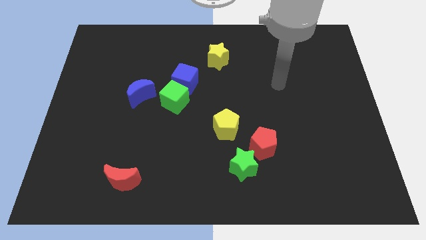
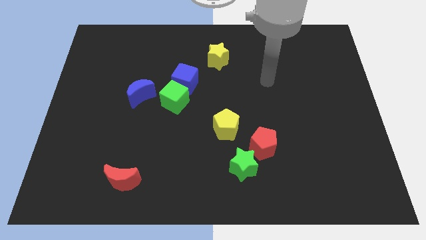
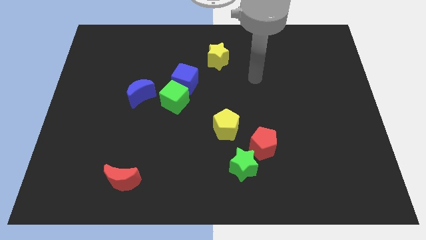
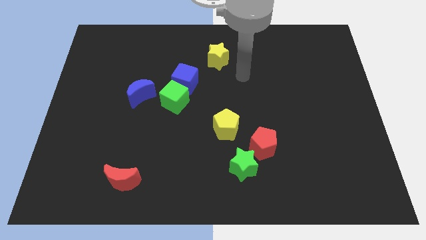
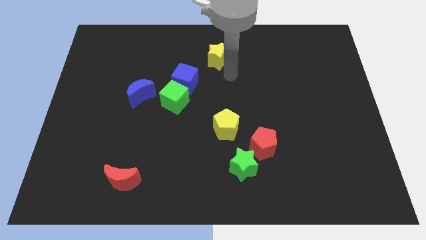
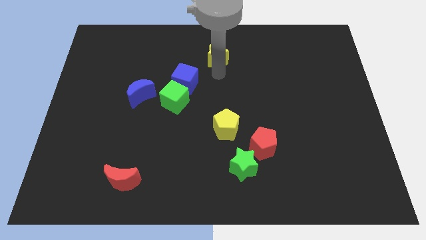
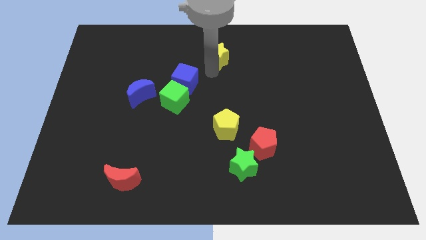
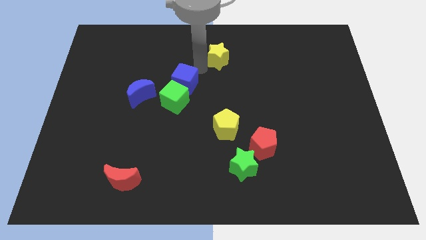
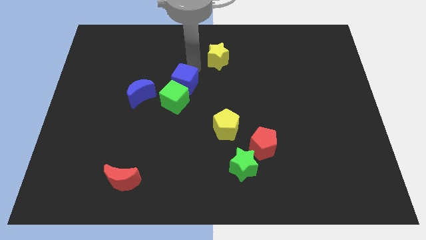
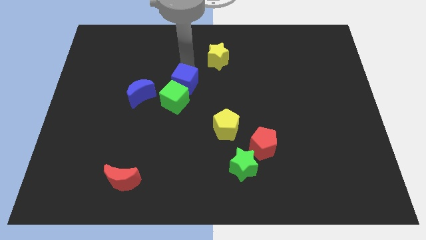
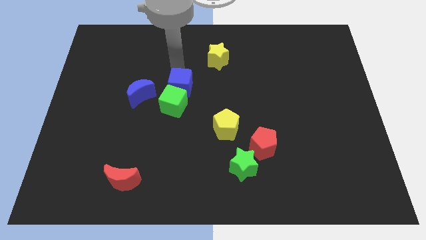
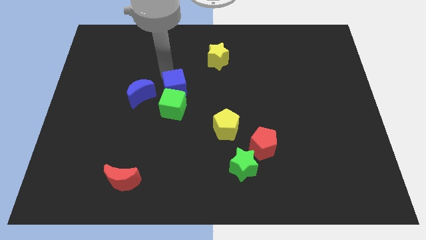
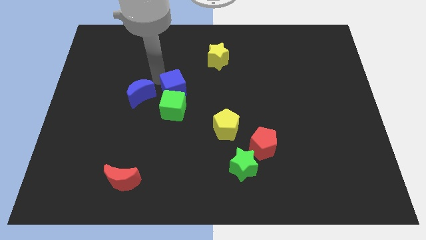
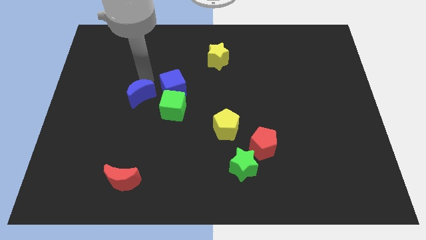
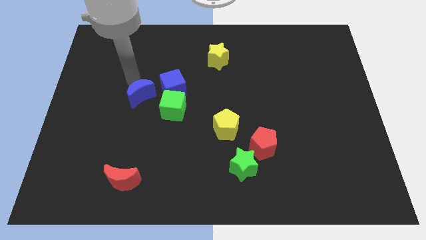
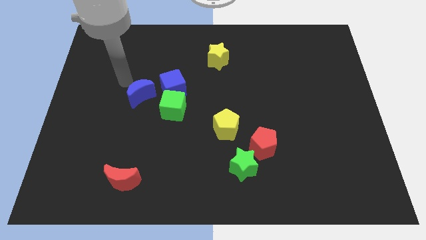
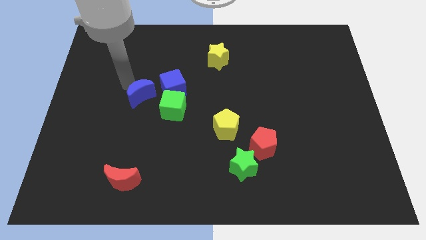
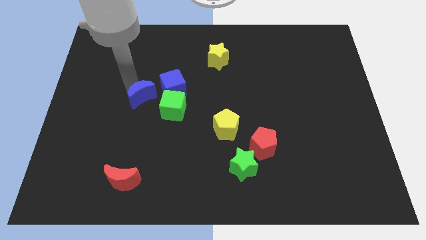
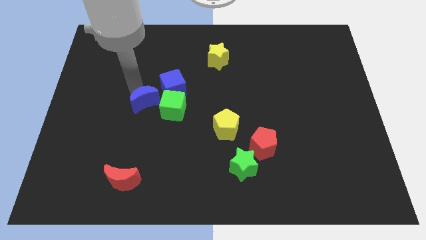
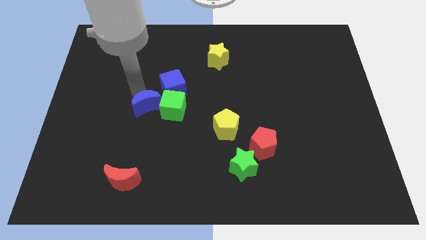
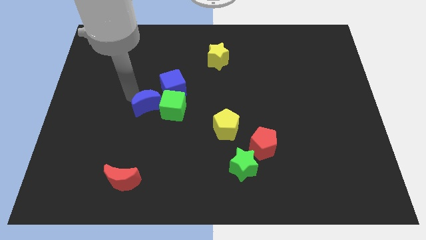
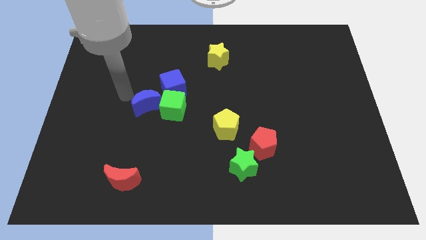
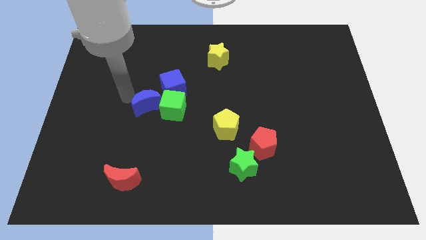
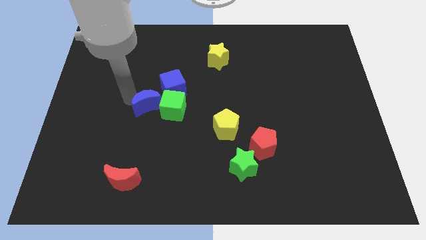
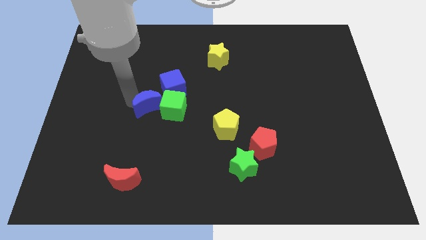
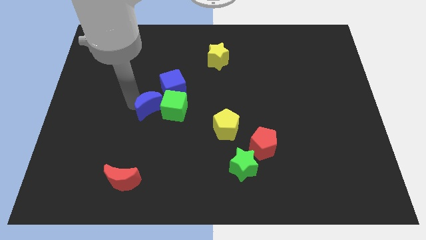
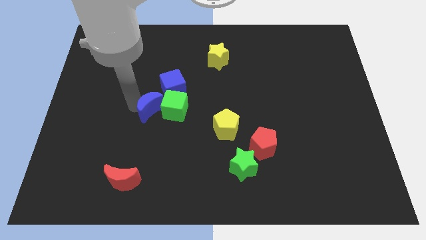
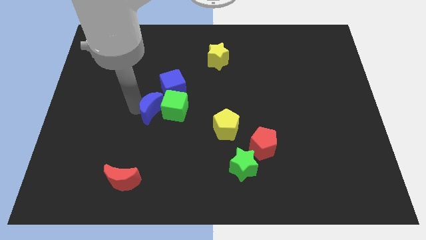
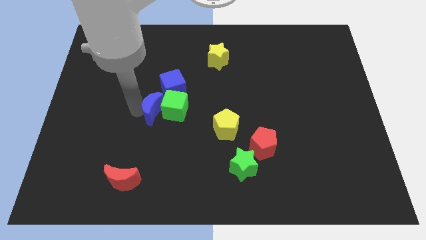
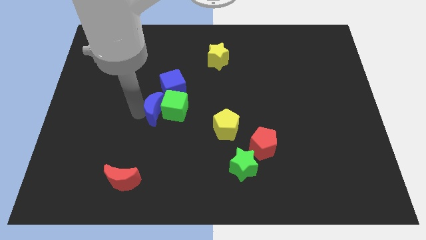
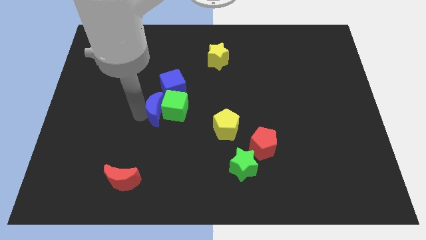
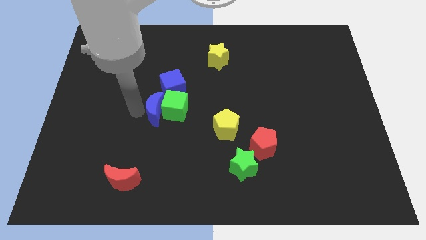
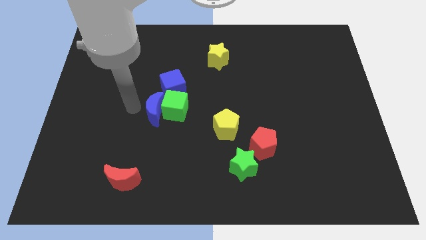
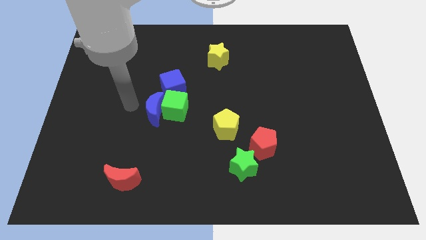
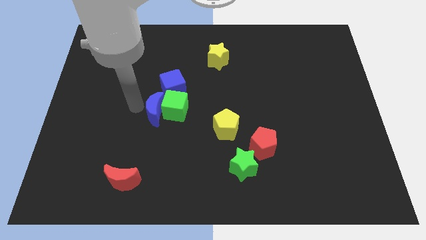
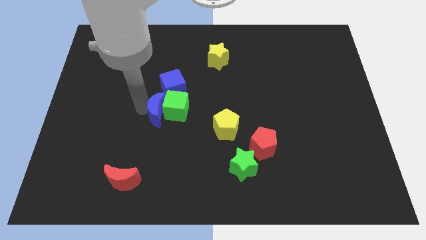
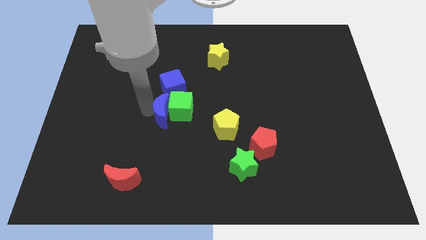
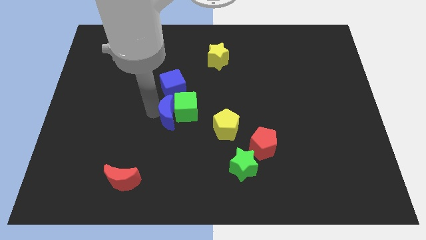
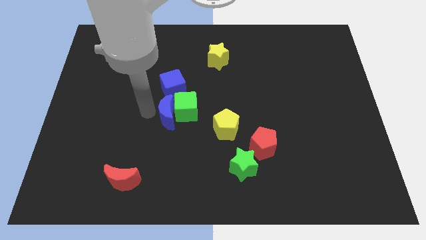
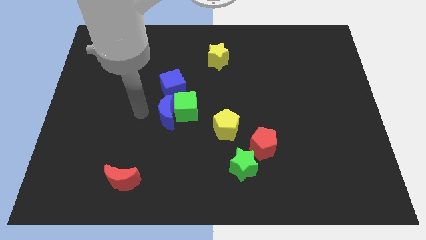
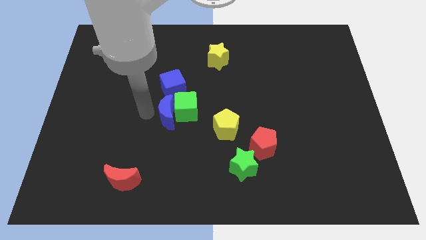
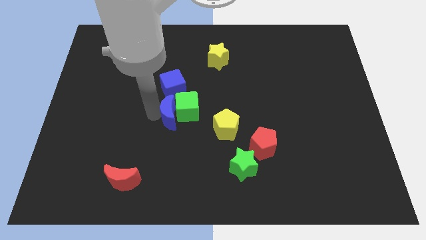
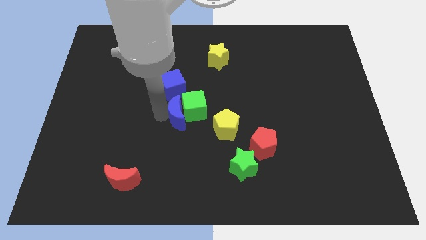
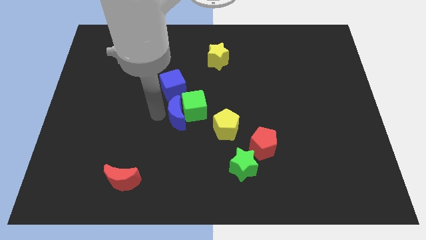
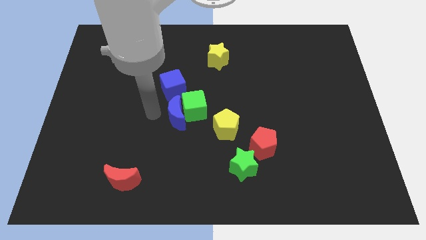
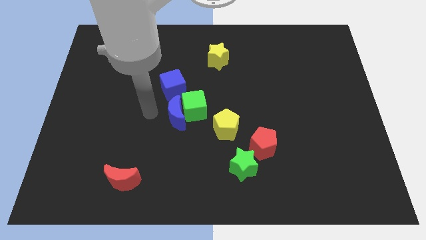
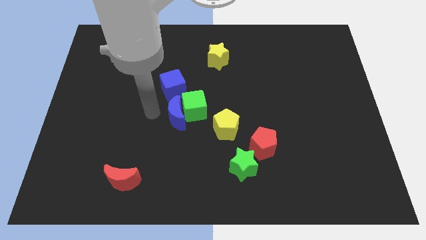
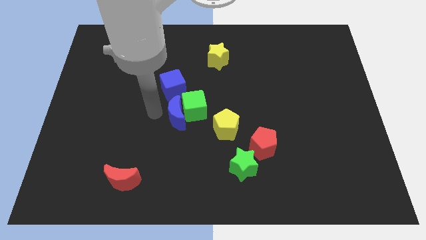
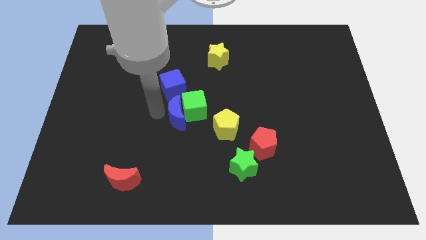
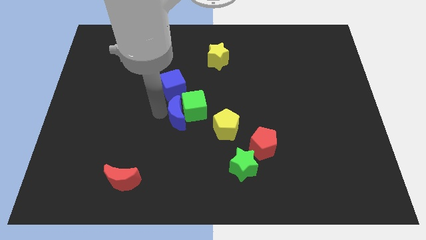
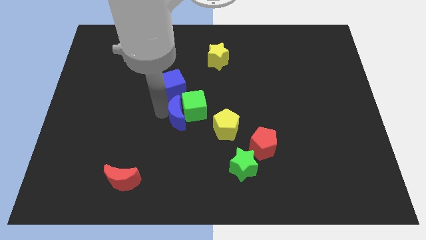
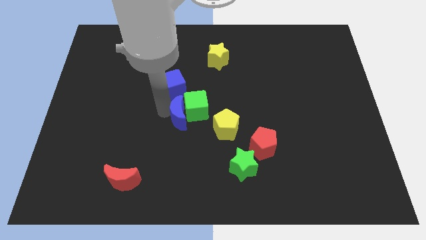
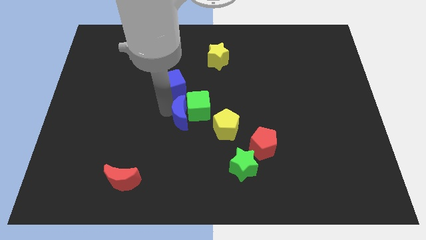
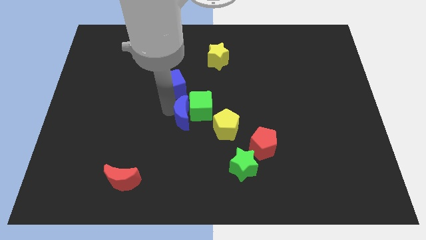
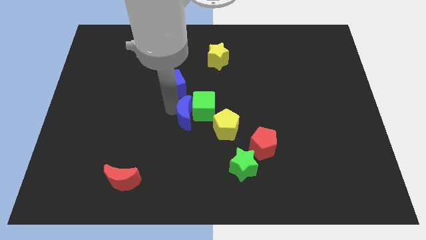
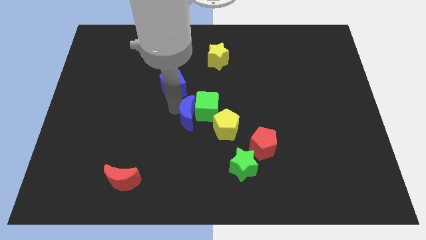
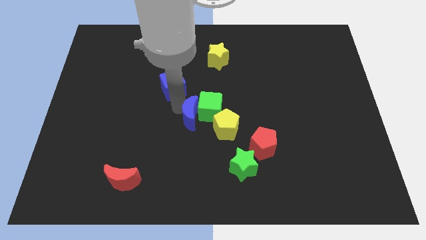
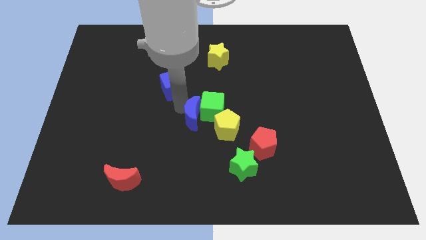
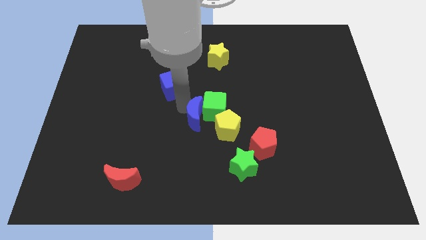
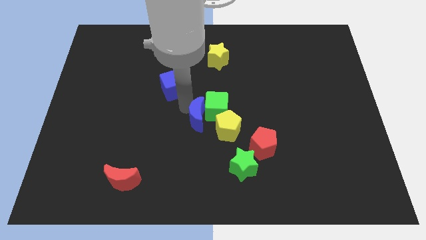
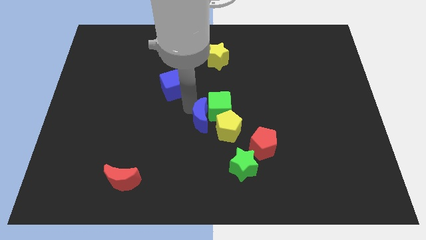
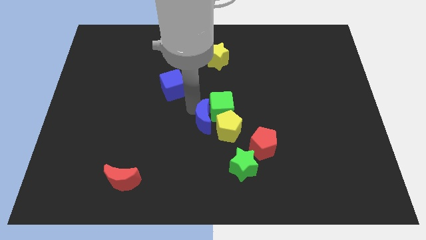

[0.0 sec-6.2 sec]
slide the blue moon next to the yellow pentagon

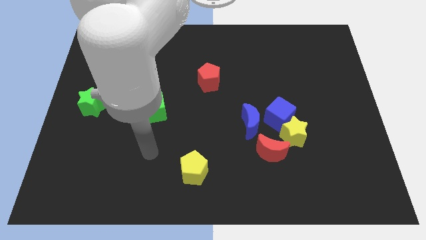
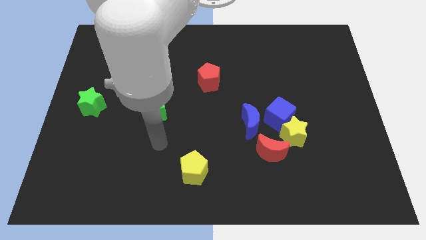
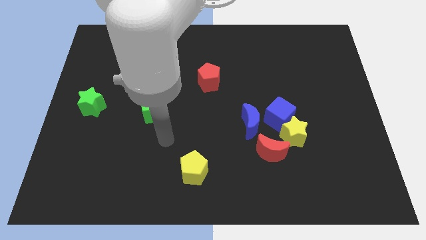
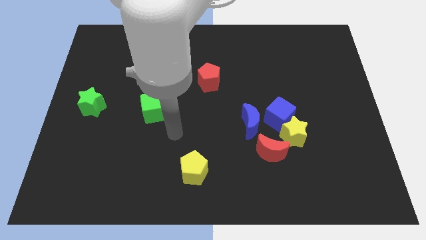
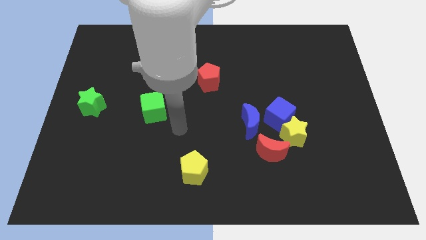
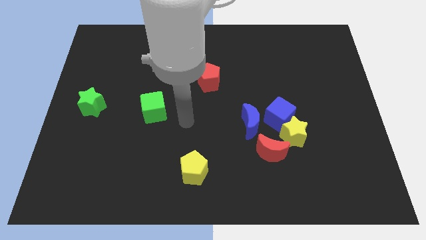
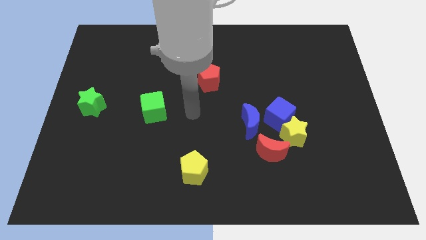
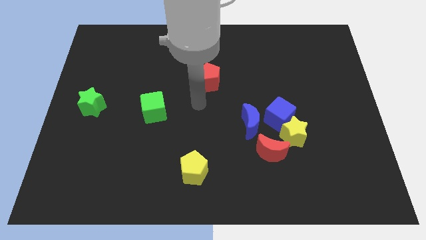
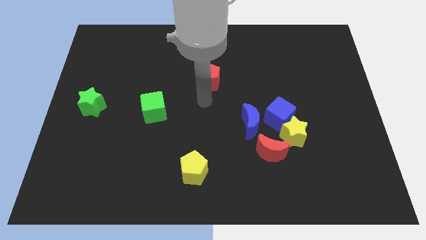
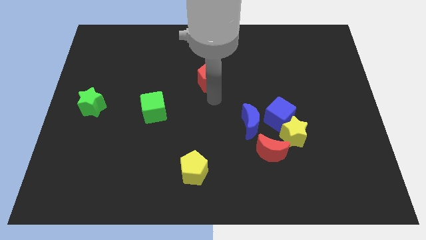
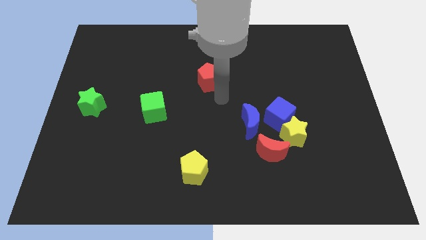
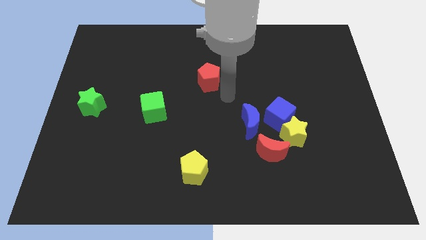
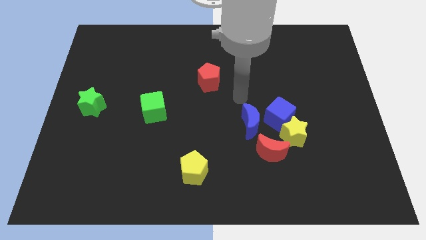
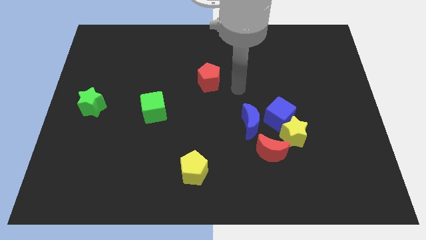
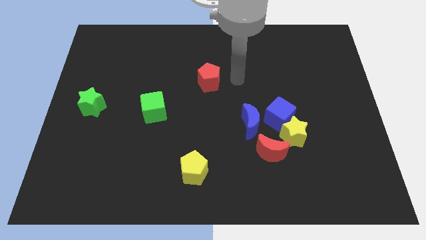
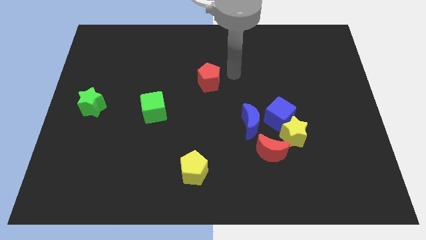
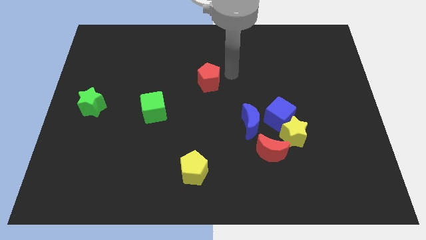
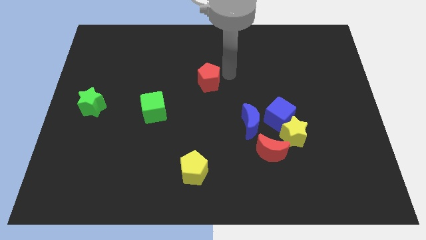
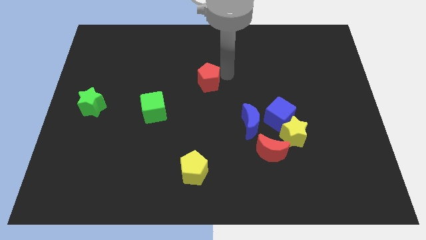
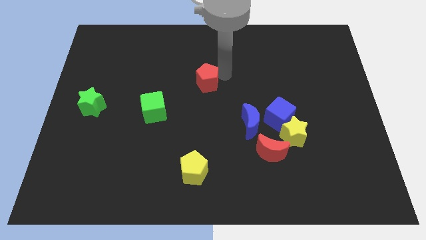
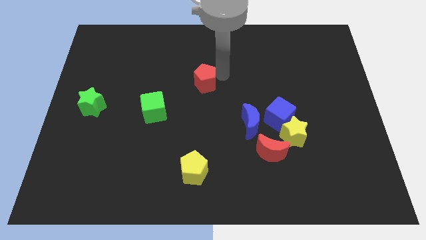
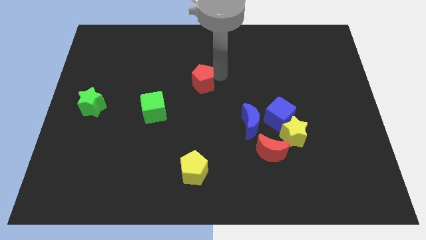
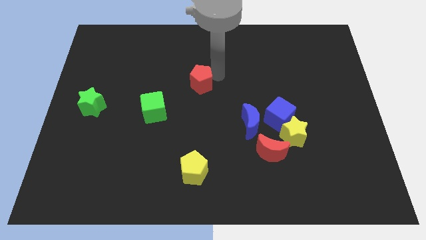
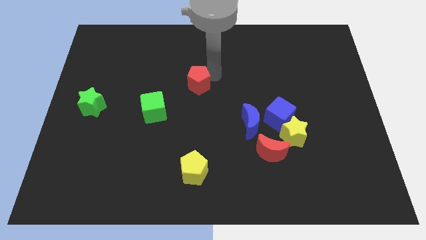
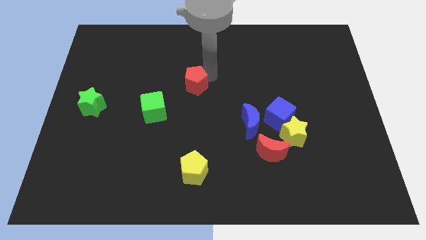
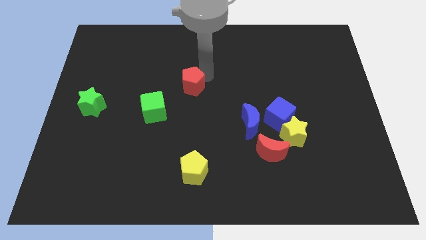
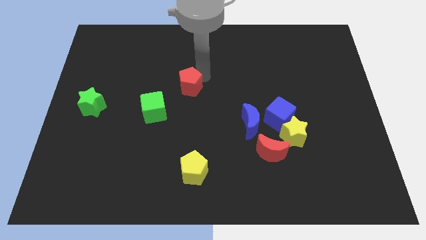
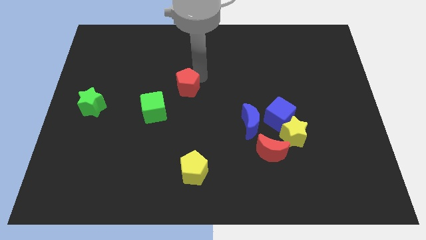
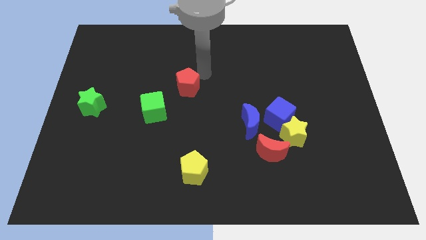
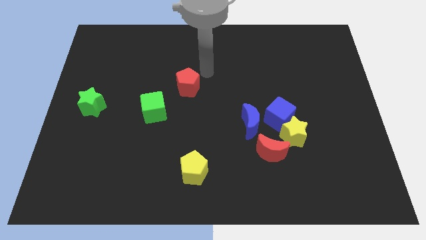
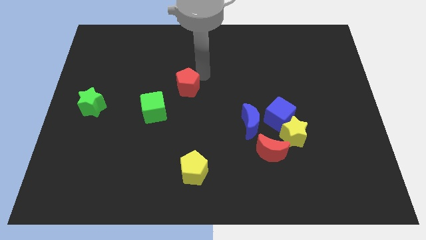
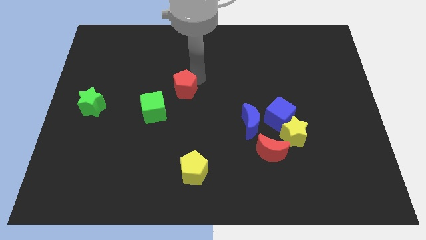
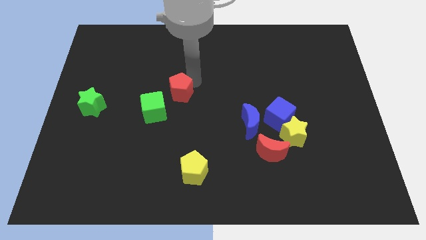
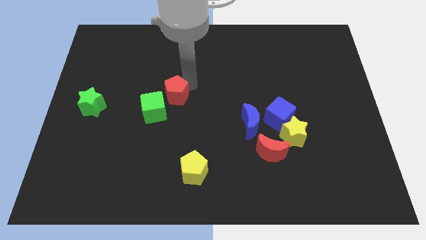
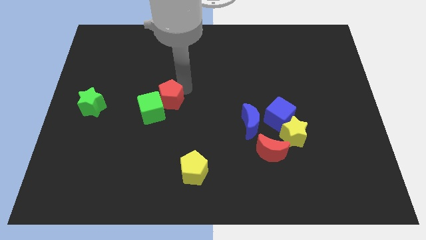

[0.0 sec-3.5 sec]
move the red pentagon towards the green cube
